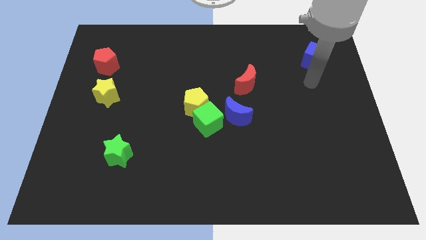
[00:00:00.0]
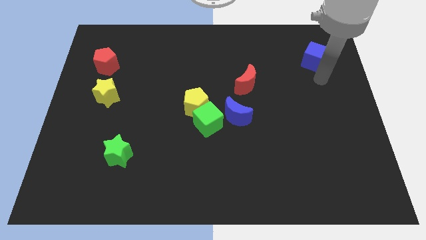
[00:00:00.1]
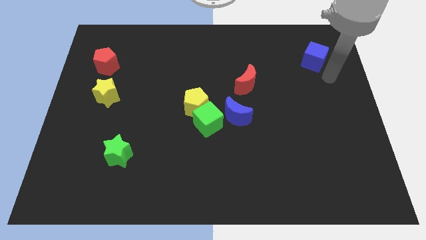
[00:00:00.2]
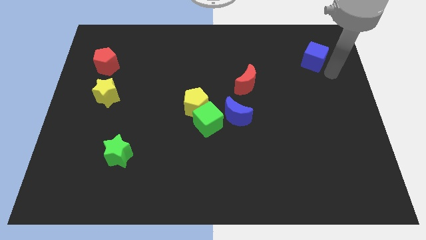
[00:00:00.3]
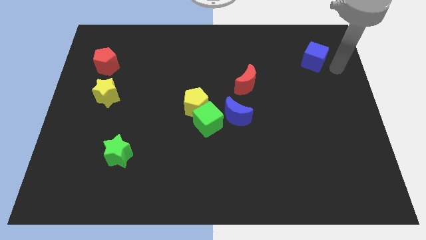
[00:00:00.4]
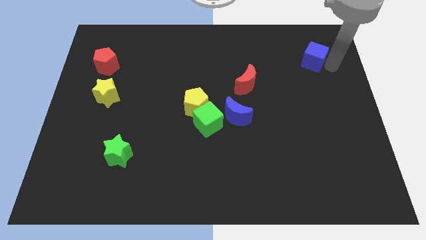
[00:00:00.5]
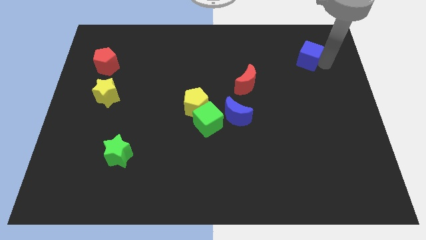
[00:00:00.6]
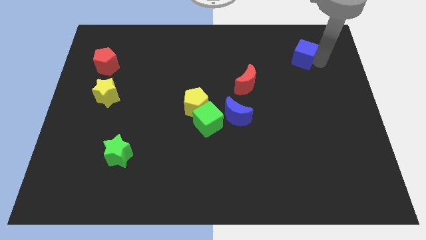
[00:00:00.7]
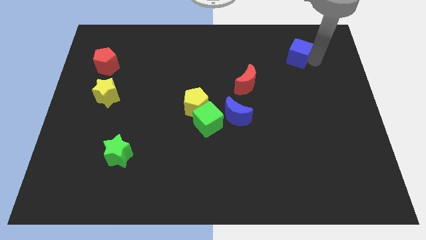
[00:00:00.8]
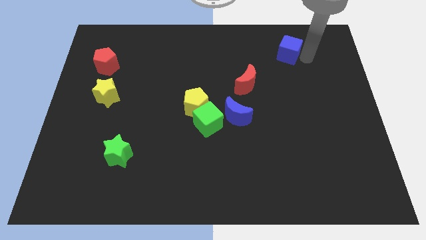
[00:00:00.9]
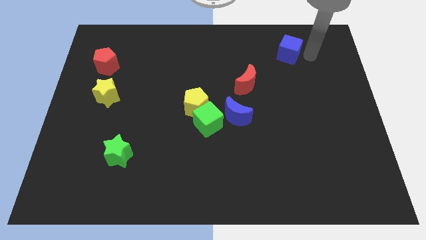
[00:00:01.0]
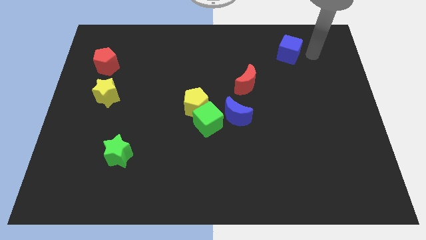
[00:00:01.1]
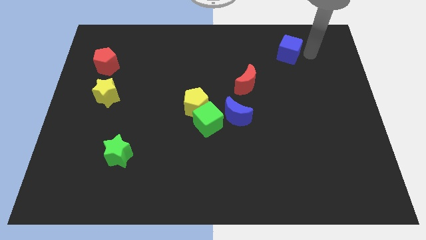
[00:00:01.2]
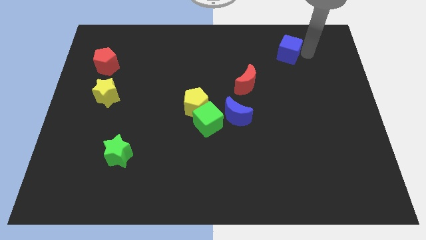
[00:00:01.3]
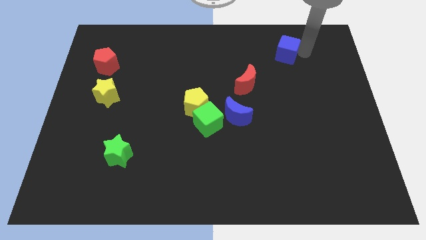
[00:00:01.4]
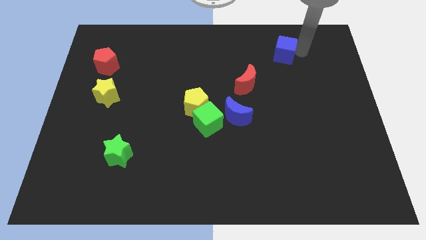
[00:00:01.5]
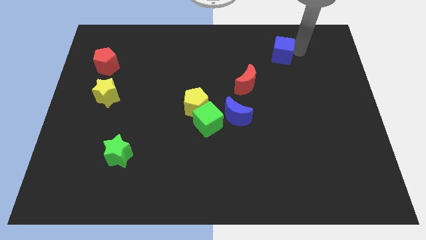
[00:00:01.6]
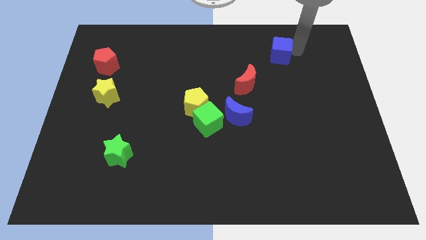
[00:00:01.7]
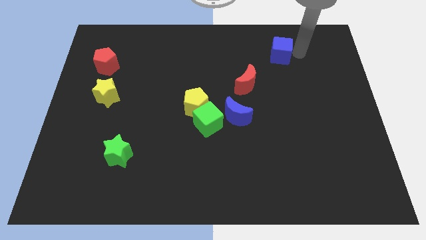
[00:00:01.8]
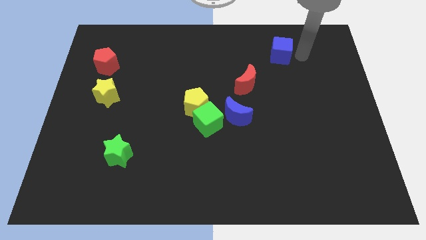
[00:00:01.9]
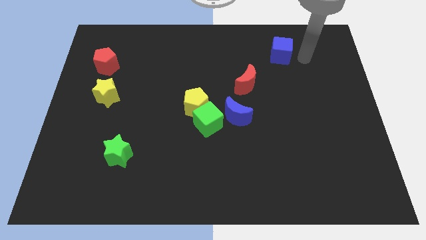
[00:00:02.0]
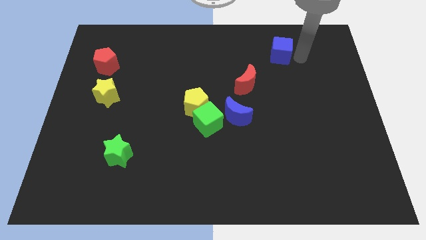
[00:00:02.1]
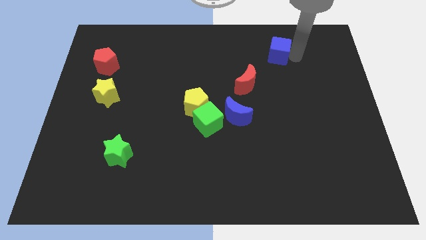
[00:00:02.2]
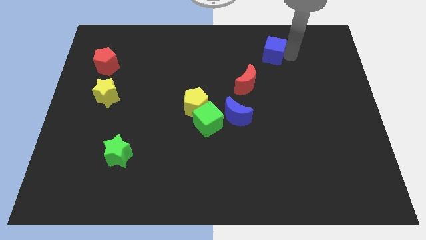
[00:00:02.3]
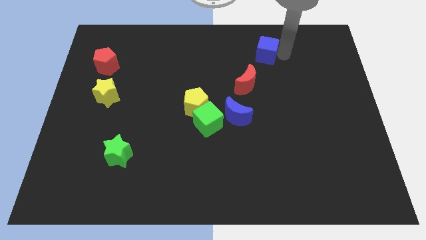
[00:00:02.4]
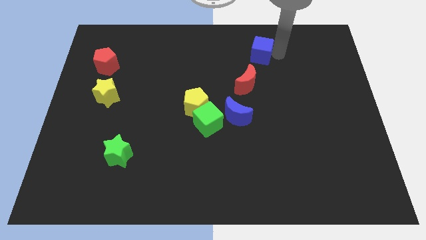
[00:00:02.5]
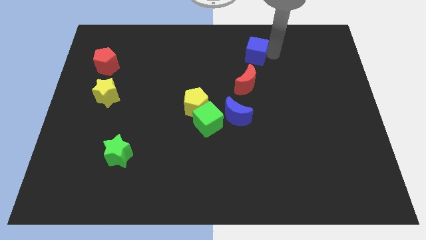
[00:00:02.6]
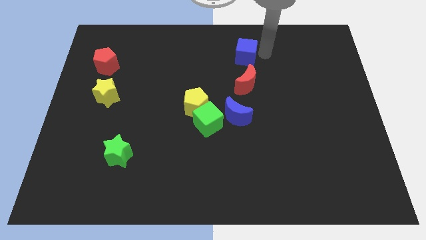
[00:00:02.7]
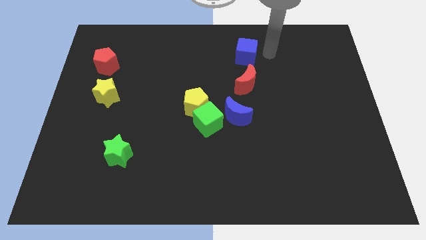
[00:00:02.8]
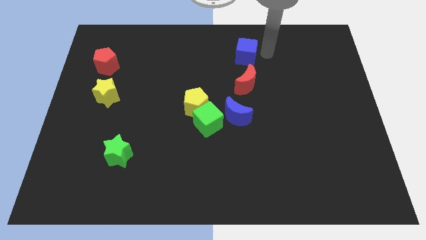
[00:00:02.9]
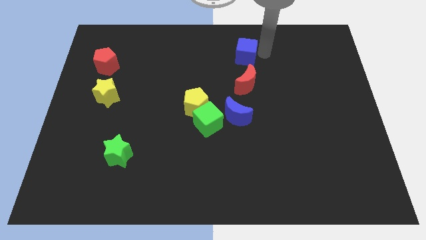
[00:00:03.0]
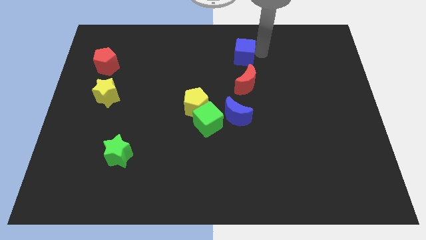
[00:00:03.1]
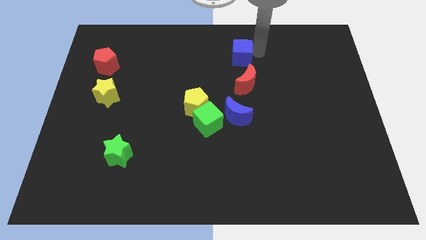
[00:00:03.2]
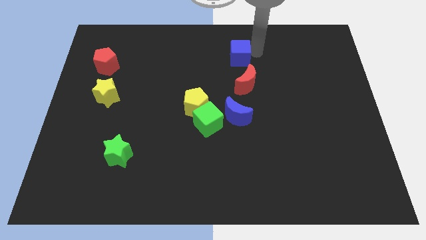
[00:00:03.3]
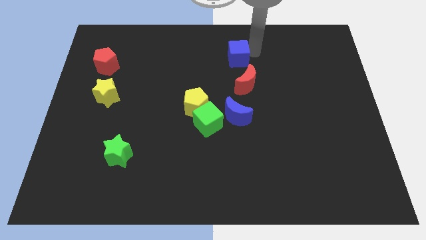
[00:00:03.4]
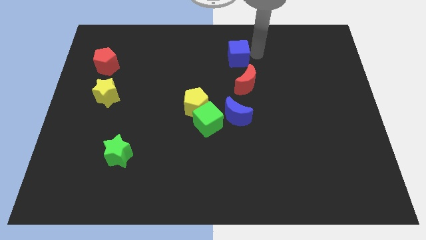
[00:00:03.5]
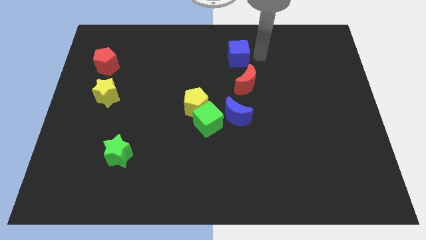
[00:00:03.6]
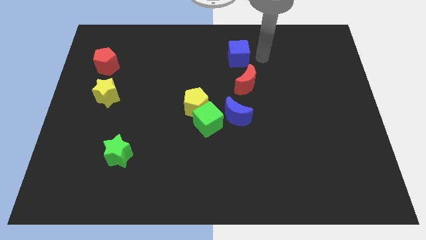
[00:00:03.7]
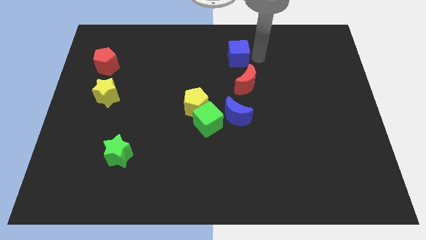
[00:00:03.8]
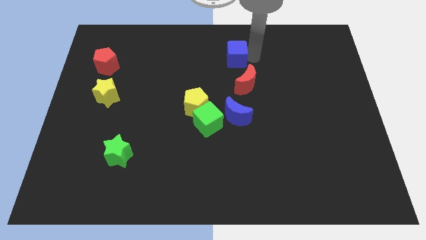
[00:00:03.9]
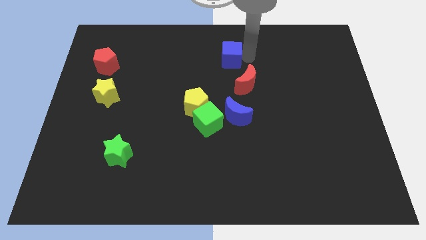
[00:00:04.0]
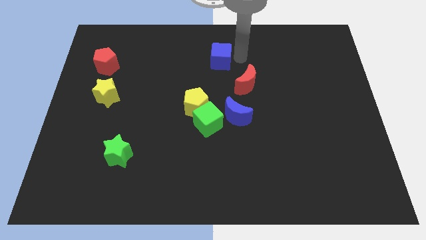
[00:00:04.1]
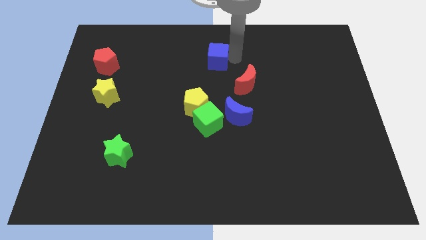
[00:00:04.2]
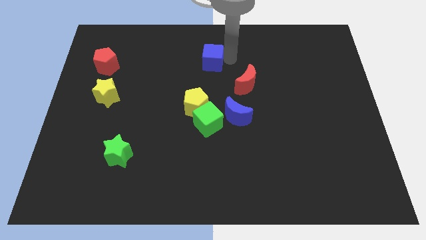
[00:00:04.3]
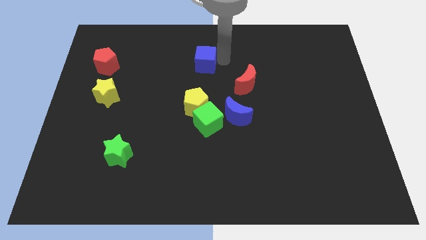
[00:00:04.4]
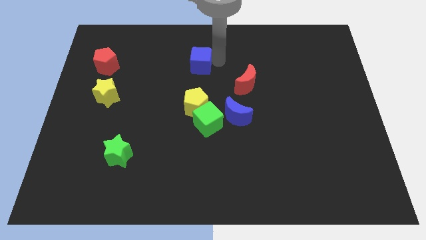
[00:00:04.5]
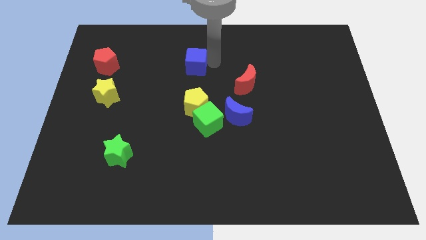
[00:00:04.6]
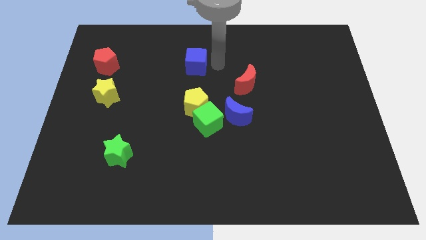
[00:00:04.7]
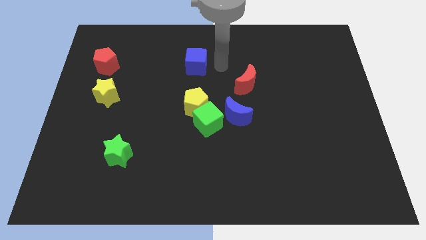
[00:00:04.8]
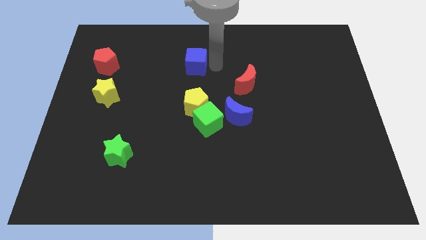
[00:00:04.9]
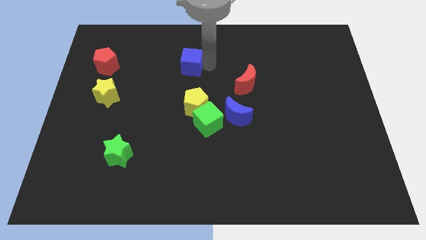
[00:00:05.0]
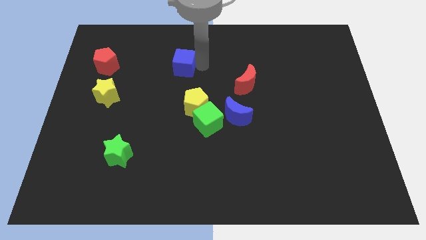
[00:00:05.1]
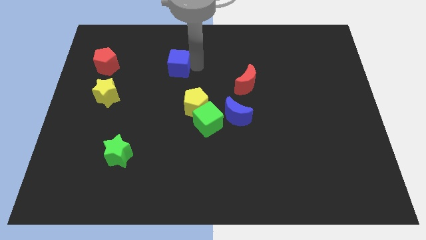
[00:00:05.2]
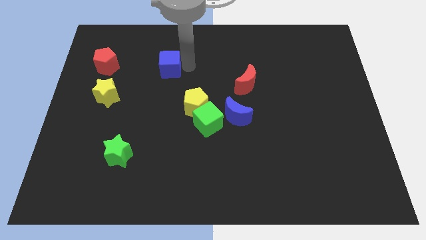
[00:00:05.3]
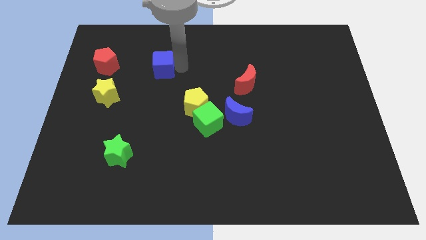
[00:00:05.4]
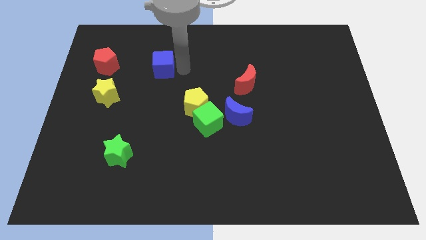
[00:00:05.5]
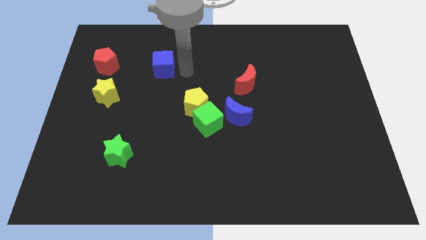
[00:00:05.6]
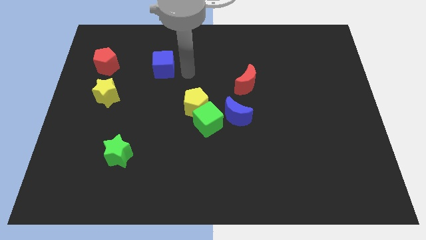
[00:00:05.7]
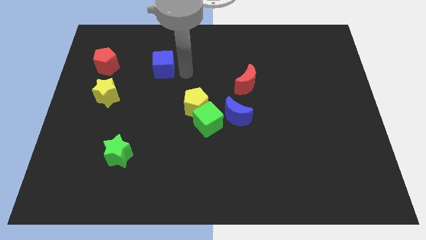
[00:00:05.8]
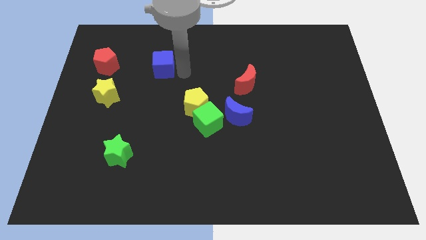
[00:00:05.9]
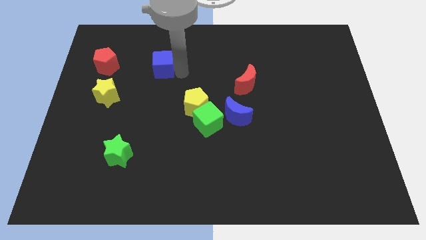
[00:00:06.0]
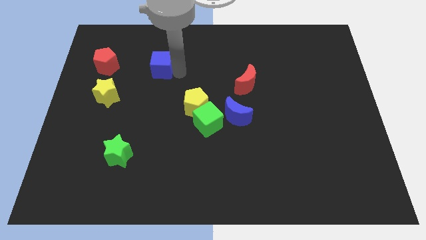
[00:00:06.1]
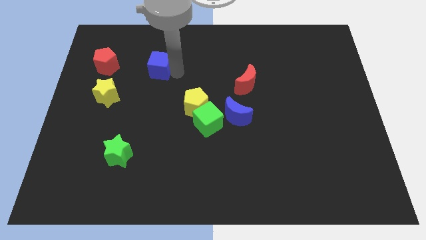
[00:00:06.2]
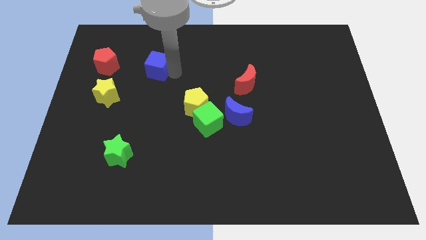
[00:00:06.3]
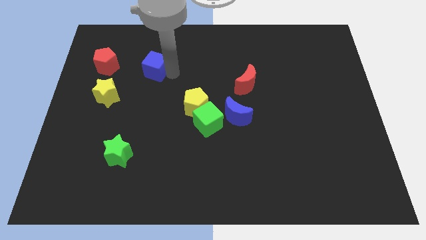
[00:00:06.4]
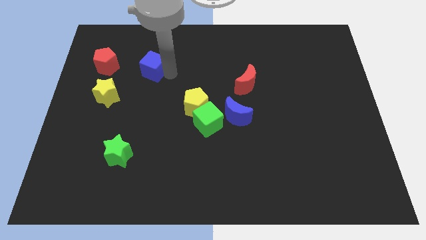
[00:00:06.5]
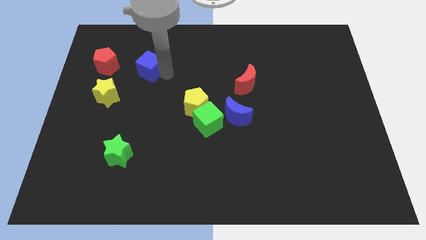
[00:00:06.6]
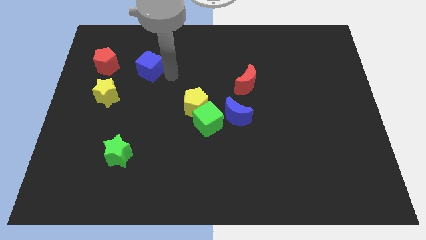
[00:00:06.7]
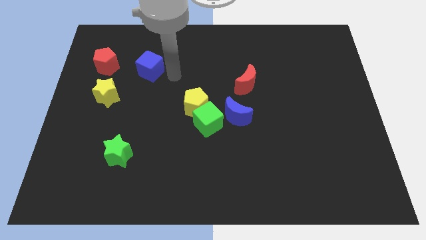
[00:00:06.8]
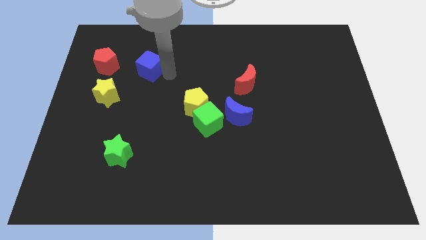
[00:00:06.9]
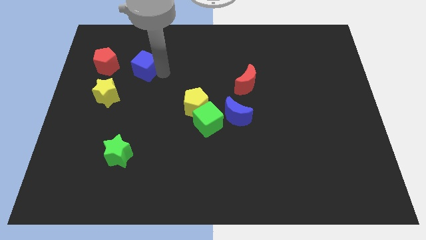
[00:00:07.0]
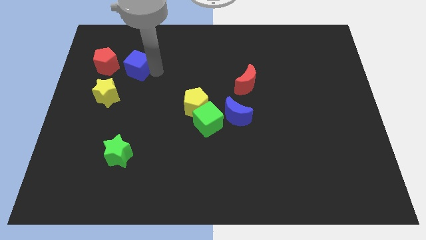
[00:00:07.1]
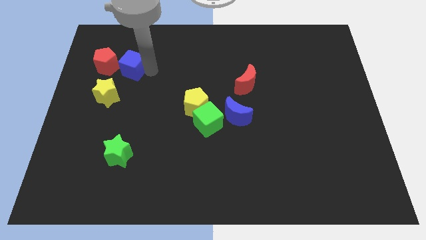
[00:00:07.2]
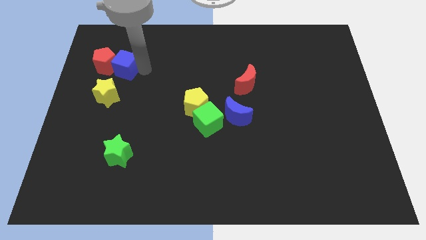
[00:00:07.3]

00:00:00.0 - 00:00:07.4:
slide the blue cube towards the red pentagon

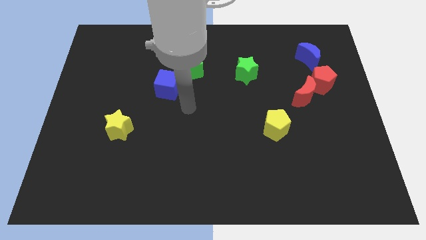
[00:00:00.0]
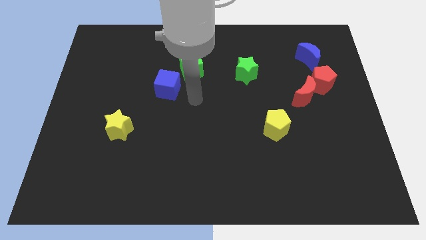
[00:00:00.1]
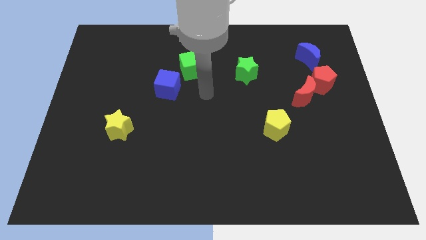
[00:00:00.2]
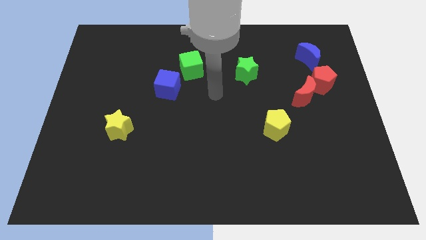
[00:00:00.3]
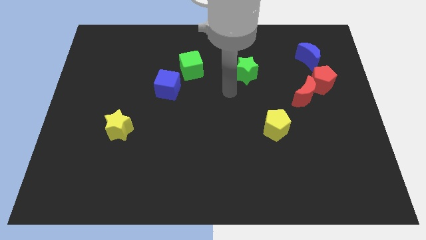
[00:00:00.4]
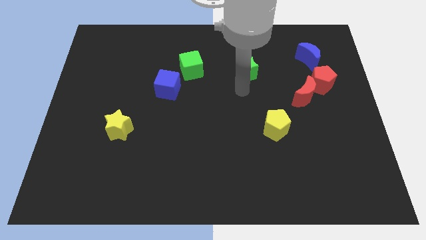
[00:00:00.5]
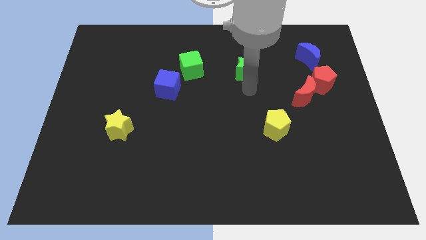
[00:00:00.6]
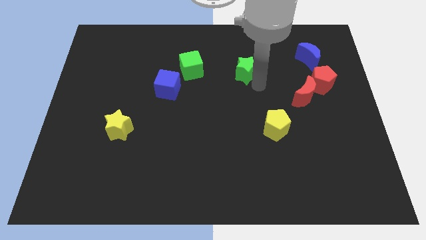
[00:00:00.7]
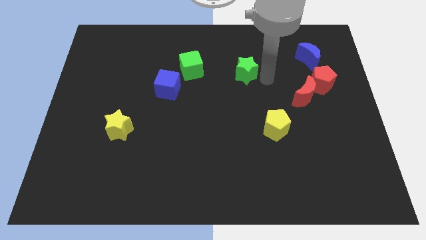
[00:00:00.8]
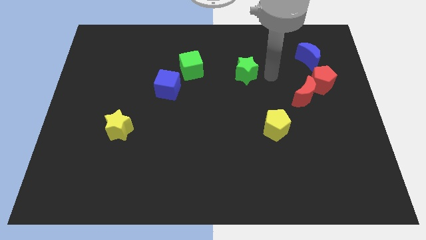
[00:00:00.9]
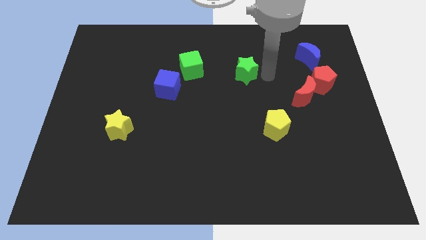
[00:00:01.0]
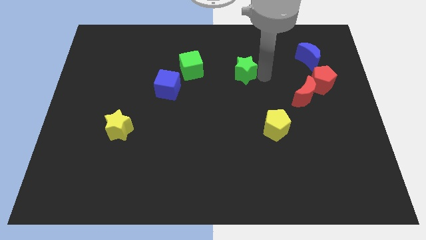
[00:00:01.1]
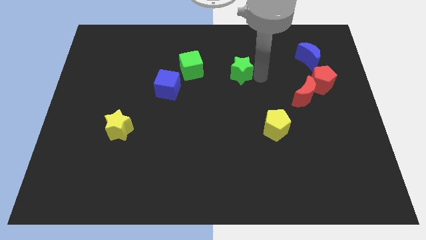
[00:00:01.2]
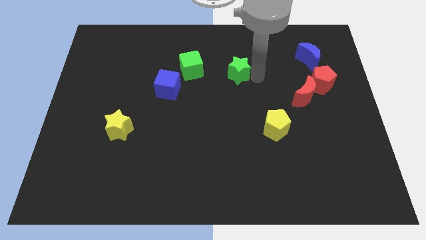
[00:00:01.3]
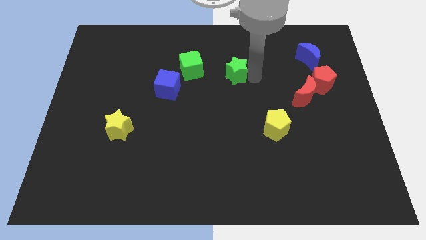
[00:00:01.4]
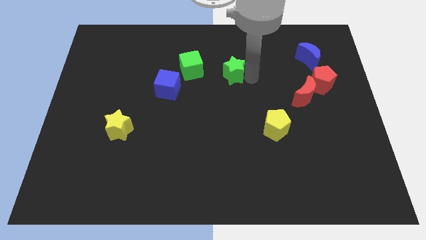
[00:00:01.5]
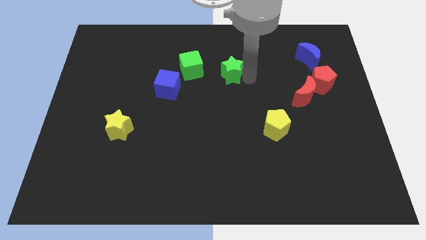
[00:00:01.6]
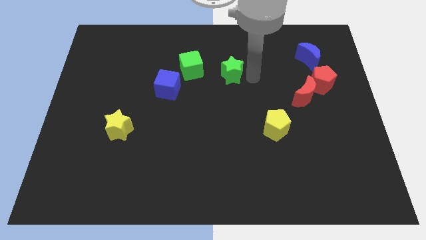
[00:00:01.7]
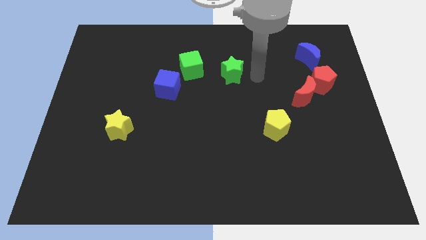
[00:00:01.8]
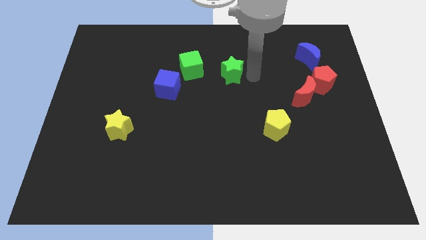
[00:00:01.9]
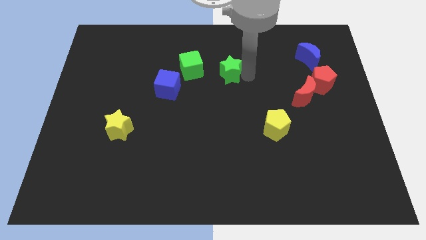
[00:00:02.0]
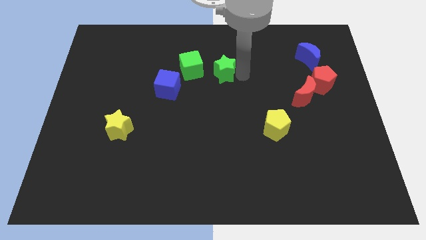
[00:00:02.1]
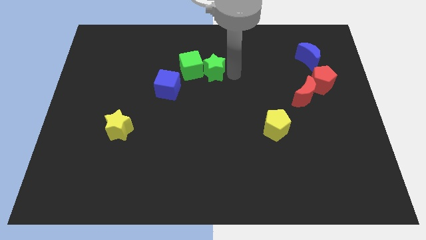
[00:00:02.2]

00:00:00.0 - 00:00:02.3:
move the green star next to the green cube
